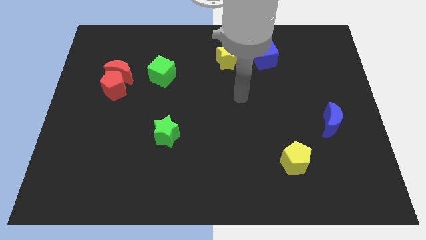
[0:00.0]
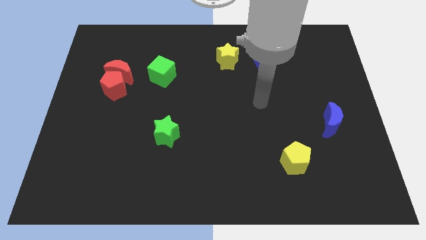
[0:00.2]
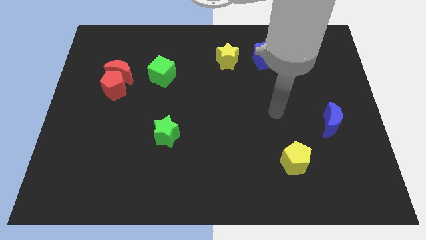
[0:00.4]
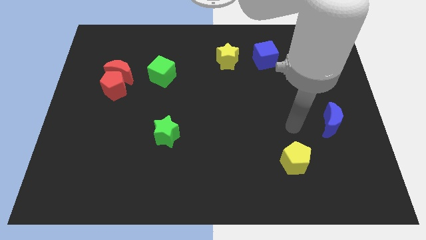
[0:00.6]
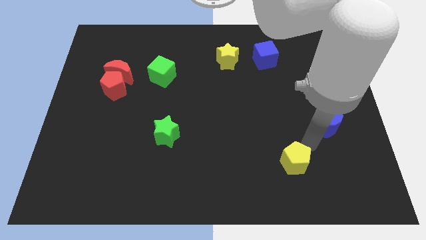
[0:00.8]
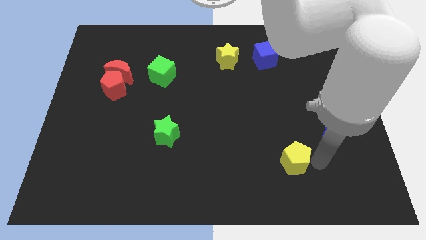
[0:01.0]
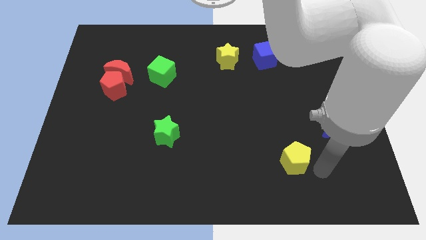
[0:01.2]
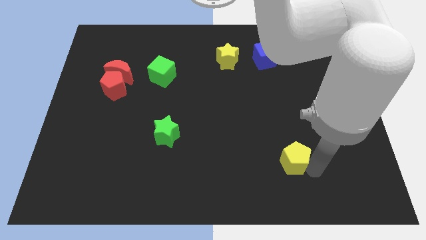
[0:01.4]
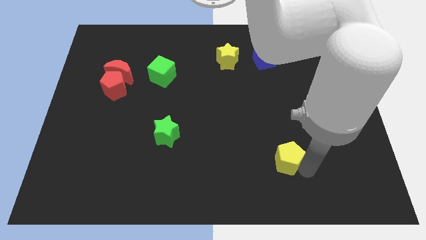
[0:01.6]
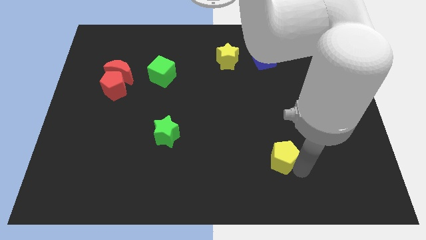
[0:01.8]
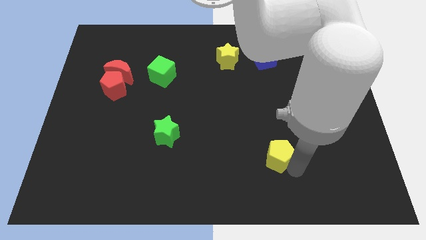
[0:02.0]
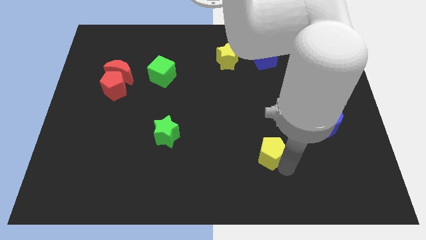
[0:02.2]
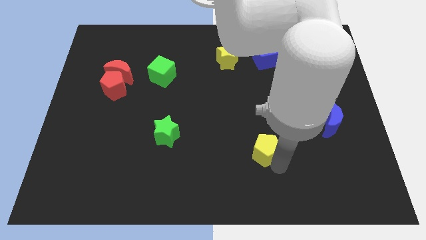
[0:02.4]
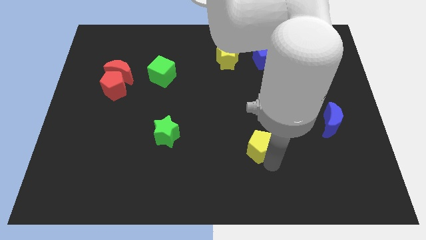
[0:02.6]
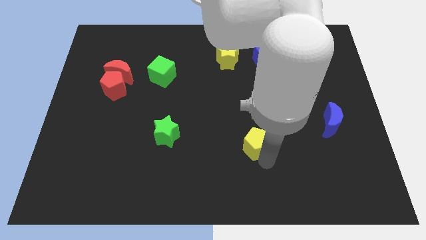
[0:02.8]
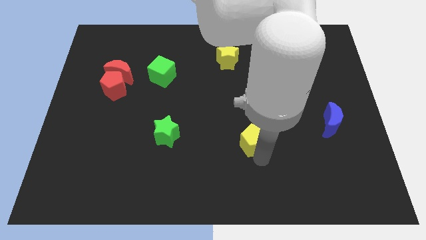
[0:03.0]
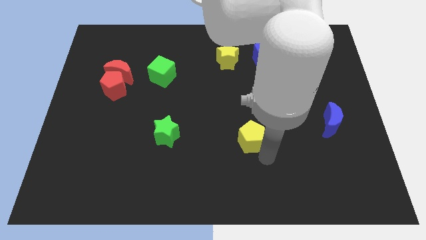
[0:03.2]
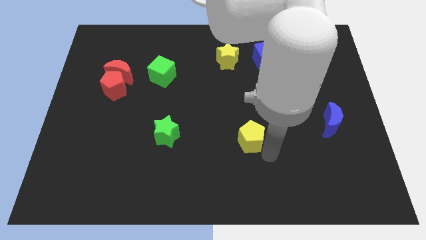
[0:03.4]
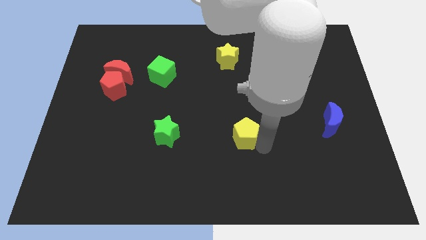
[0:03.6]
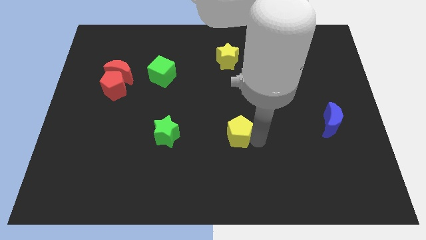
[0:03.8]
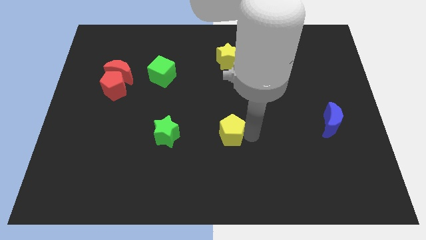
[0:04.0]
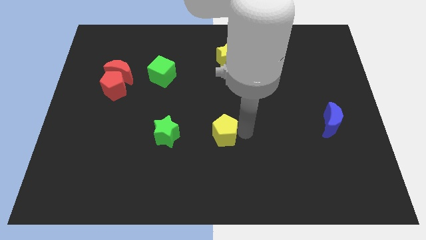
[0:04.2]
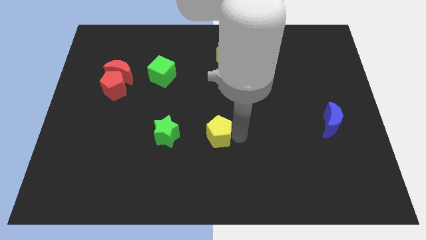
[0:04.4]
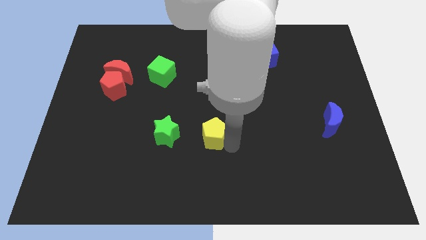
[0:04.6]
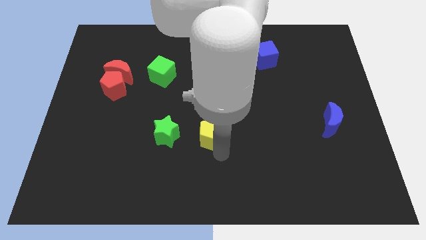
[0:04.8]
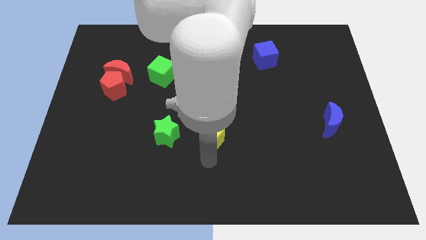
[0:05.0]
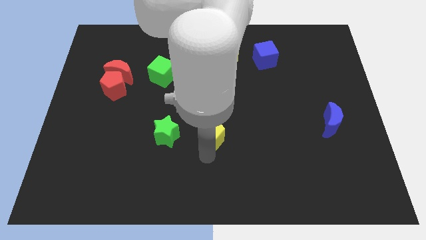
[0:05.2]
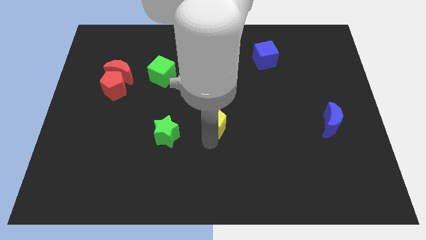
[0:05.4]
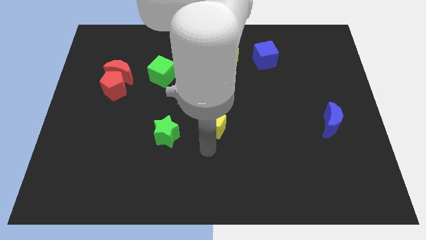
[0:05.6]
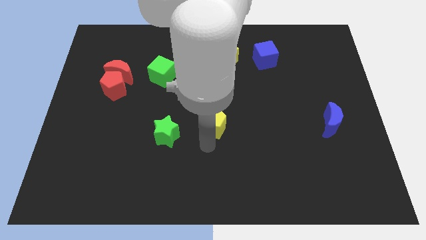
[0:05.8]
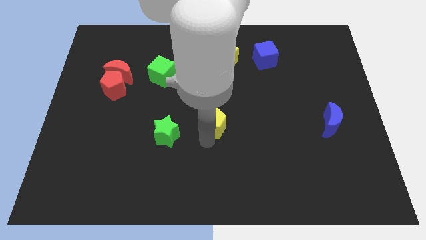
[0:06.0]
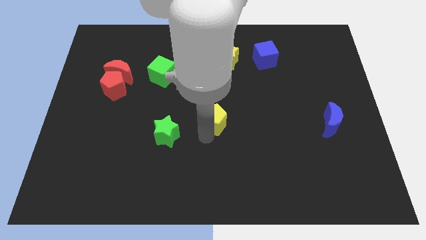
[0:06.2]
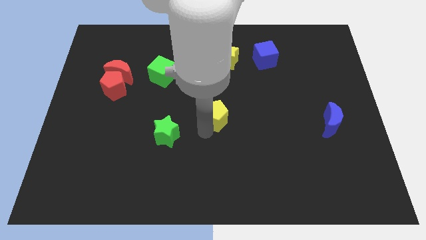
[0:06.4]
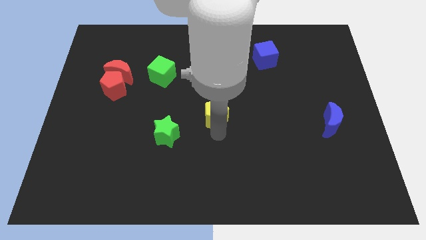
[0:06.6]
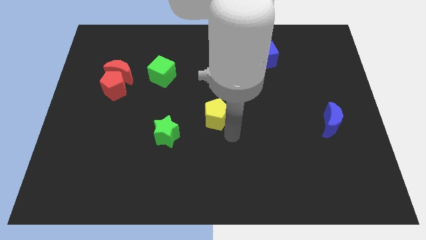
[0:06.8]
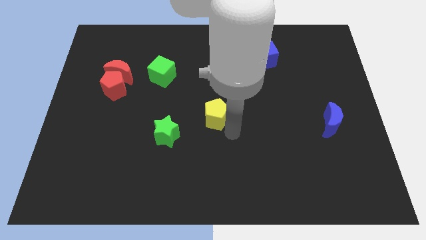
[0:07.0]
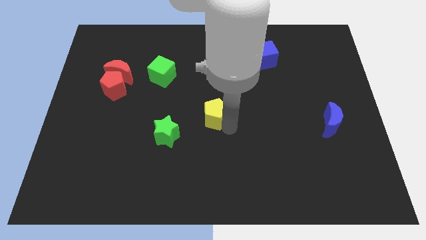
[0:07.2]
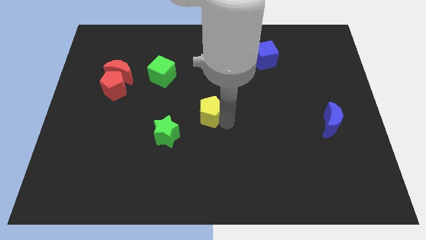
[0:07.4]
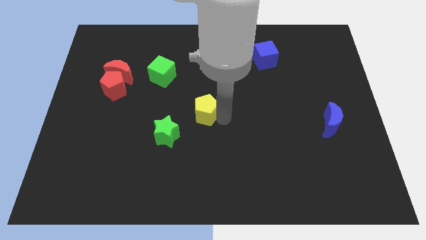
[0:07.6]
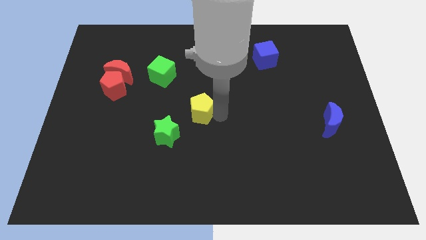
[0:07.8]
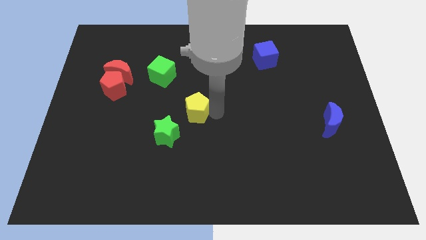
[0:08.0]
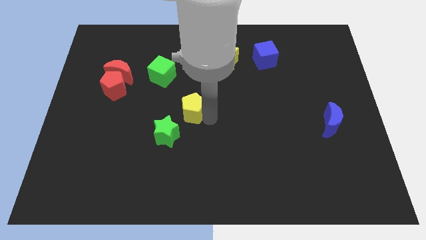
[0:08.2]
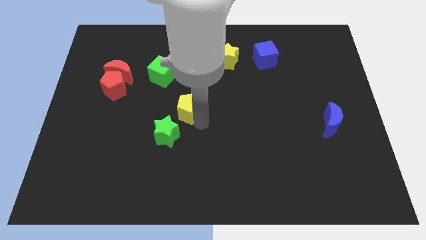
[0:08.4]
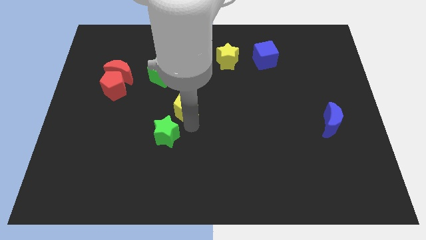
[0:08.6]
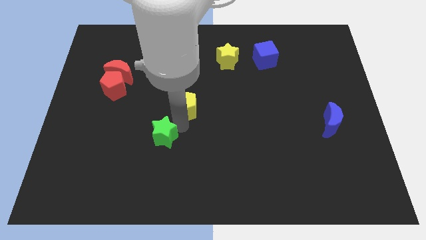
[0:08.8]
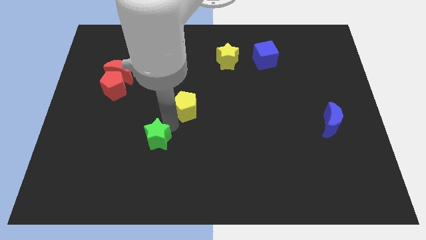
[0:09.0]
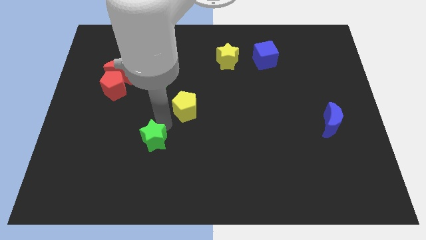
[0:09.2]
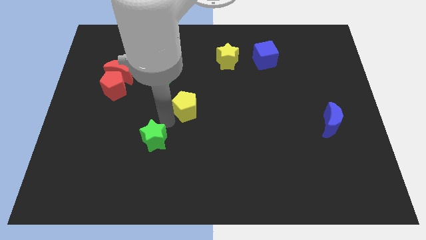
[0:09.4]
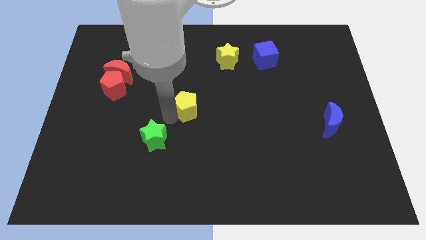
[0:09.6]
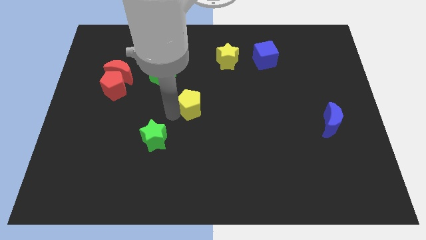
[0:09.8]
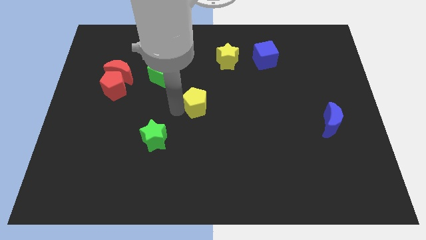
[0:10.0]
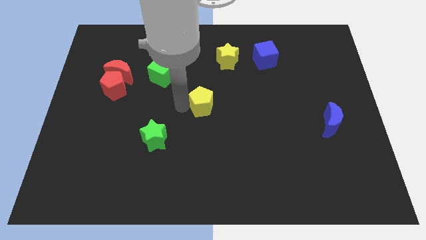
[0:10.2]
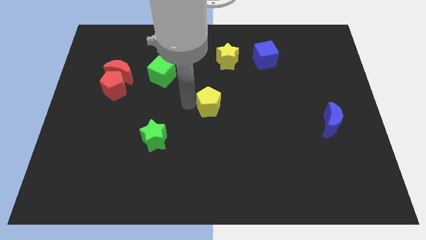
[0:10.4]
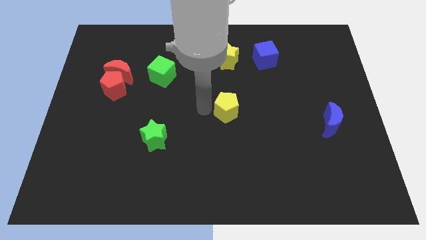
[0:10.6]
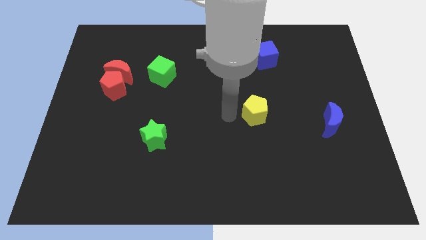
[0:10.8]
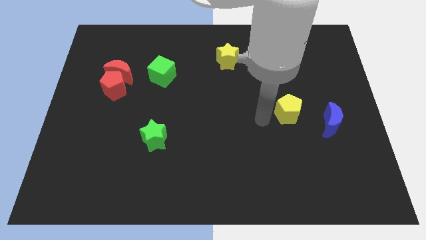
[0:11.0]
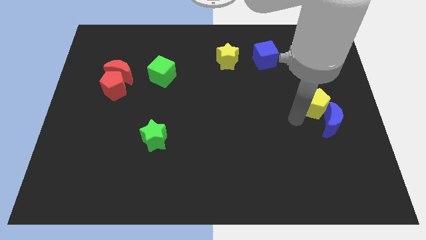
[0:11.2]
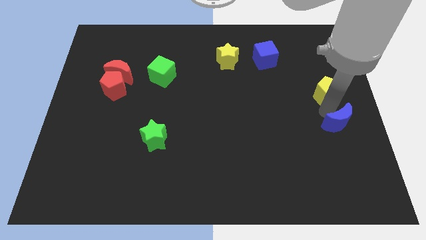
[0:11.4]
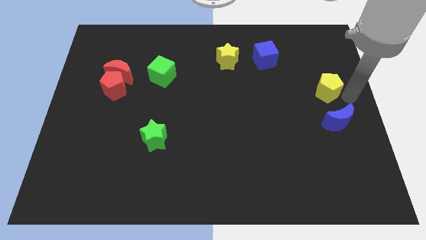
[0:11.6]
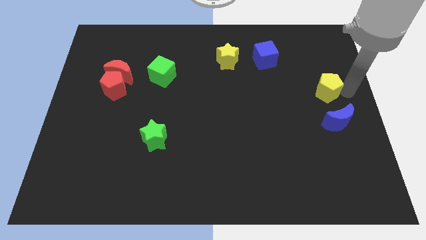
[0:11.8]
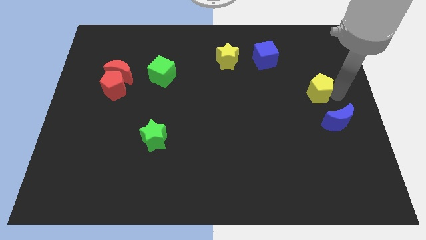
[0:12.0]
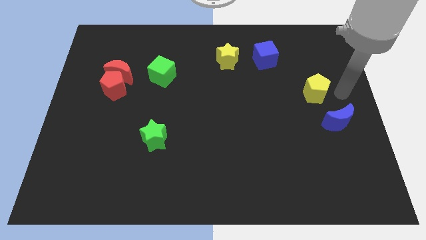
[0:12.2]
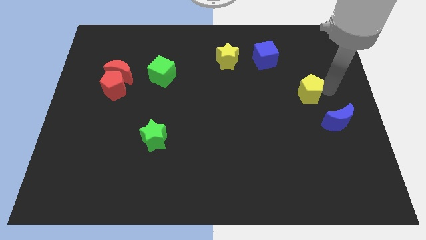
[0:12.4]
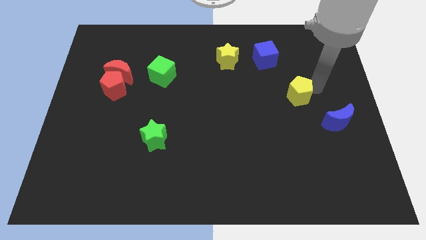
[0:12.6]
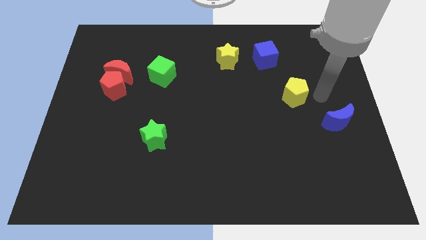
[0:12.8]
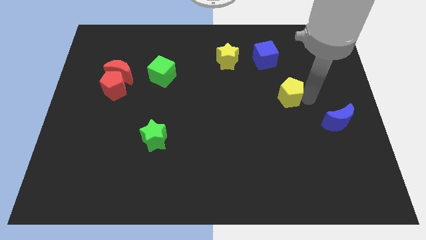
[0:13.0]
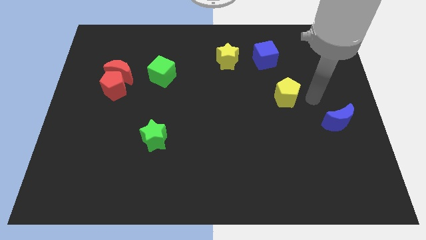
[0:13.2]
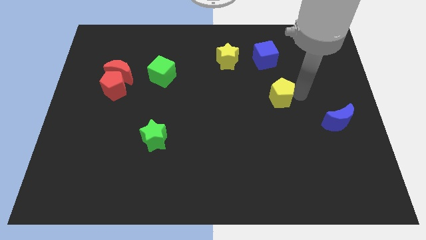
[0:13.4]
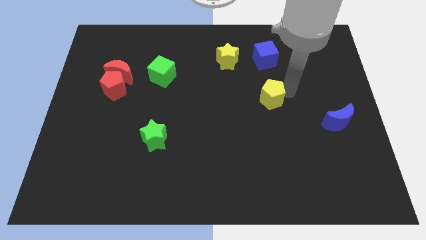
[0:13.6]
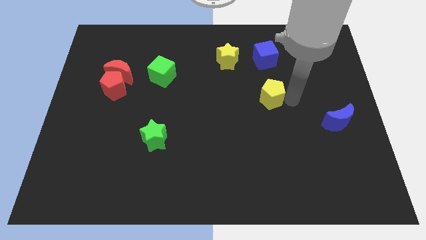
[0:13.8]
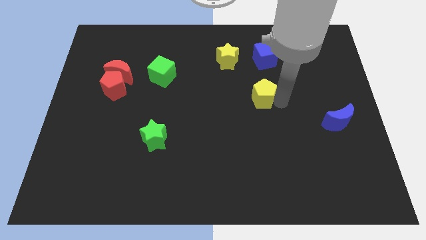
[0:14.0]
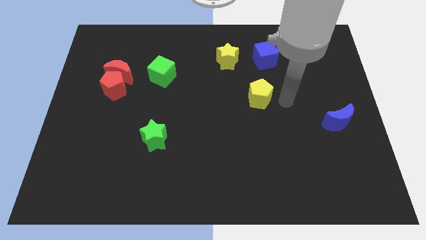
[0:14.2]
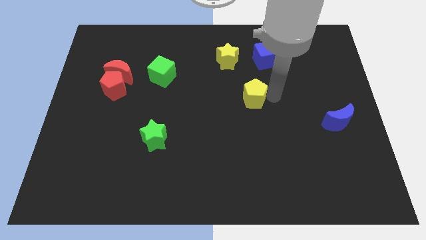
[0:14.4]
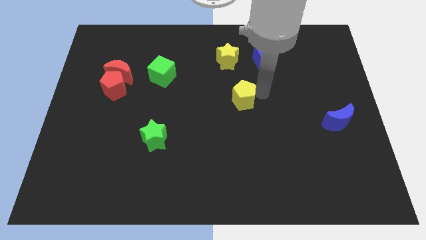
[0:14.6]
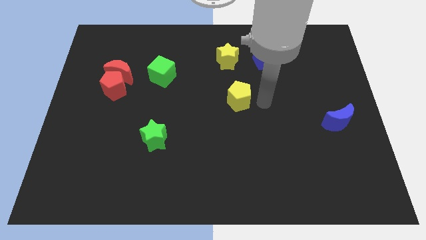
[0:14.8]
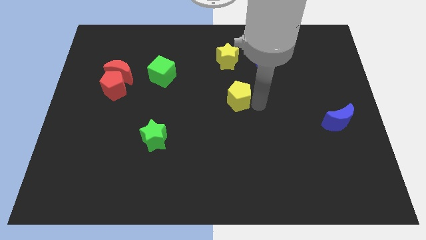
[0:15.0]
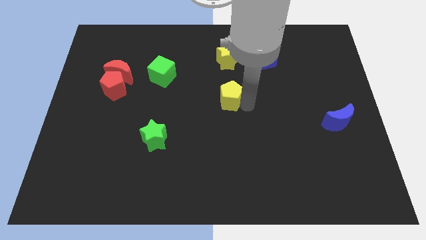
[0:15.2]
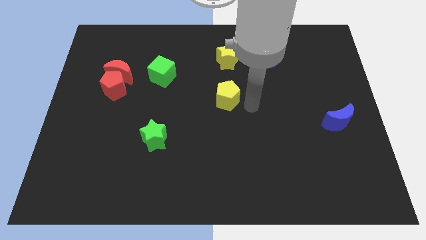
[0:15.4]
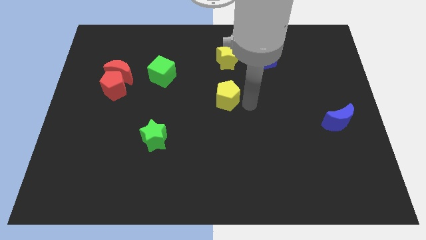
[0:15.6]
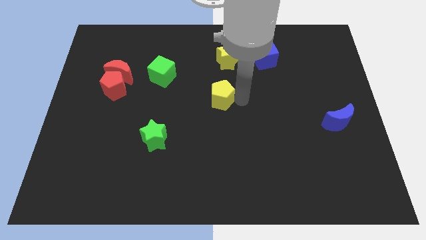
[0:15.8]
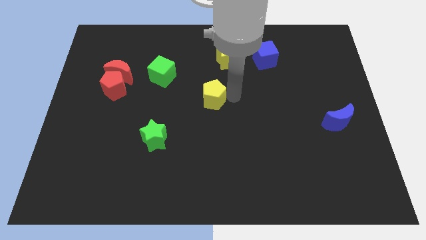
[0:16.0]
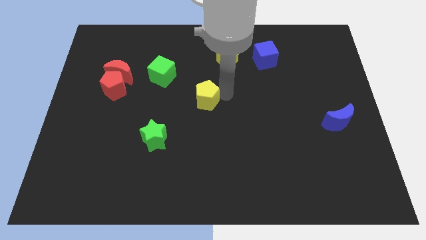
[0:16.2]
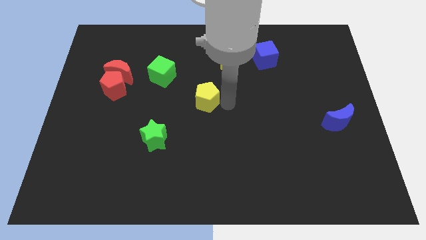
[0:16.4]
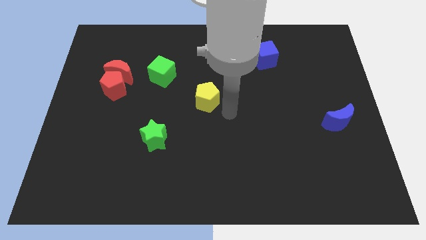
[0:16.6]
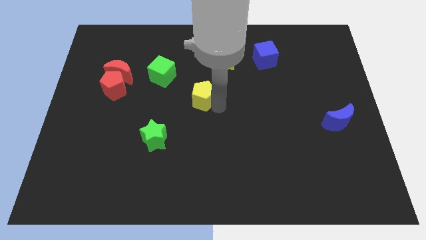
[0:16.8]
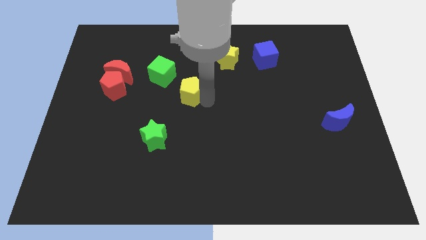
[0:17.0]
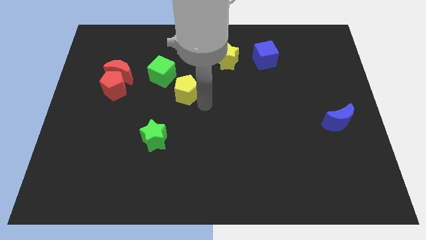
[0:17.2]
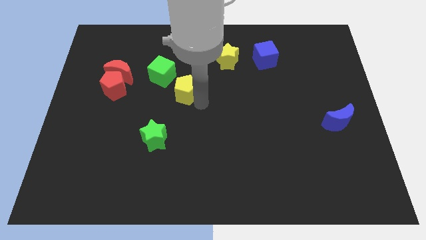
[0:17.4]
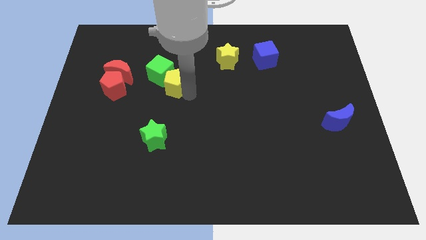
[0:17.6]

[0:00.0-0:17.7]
push the yellow pentagon close to the green cube
